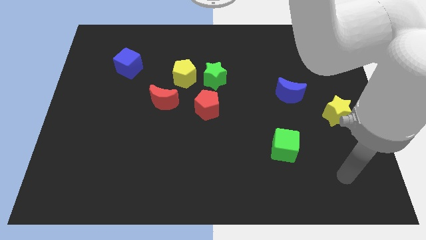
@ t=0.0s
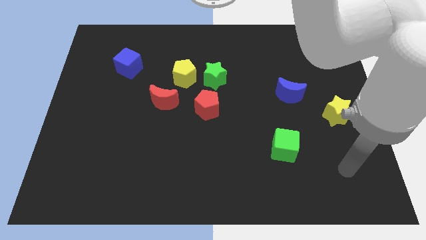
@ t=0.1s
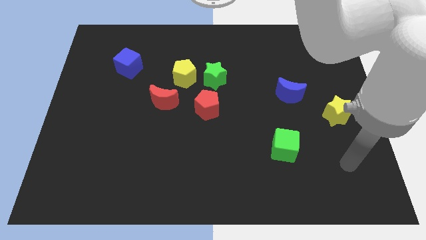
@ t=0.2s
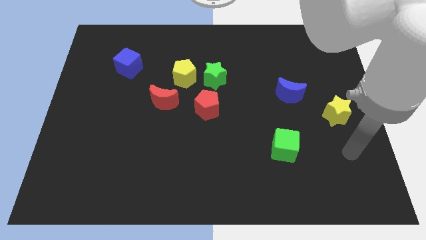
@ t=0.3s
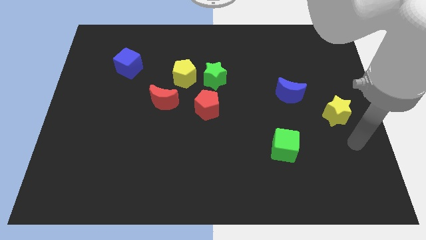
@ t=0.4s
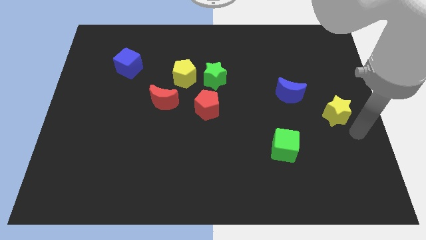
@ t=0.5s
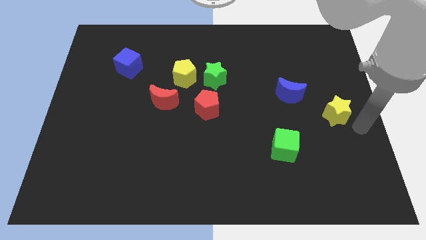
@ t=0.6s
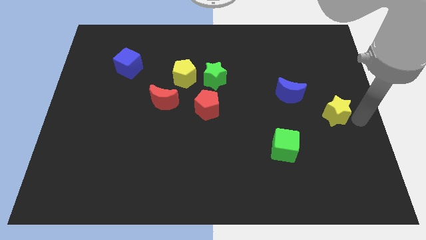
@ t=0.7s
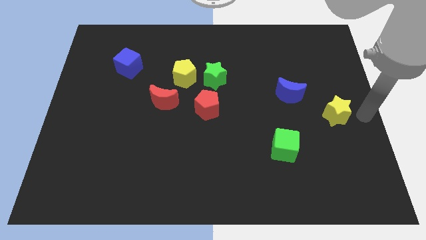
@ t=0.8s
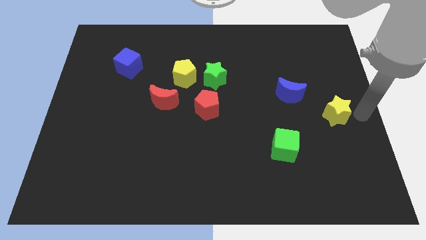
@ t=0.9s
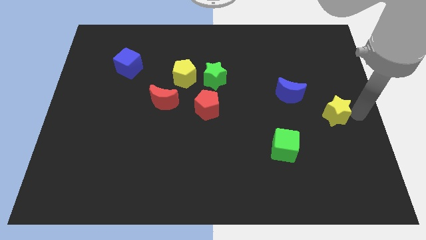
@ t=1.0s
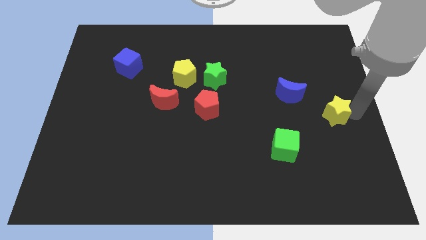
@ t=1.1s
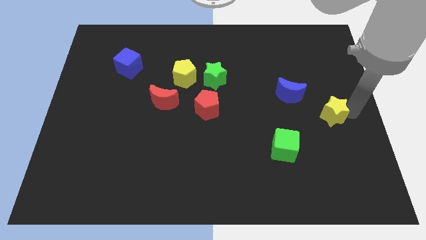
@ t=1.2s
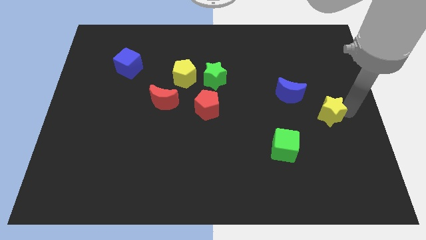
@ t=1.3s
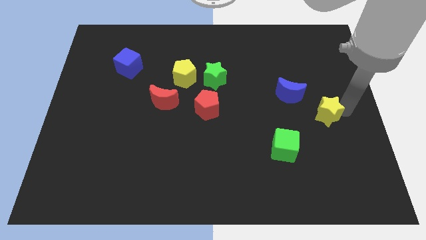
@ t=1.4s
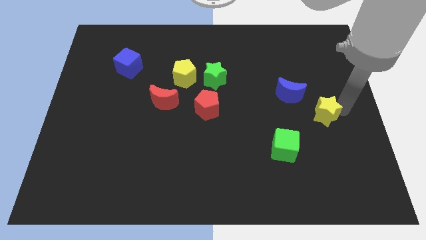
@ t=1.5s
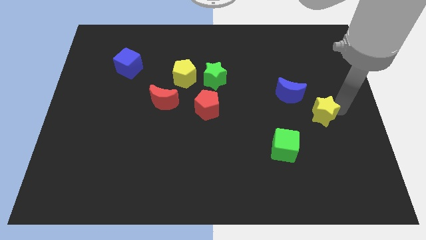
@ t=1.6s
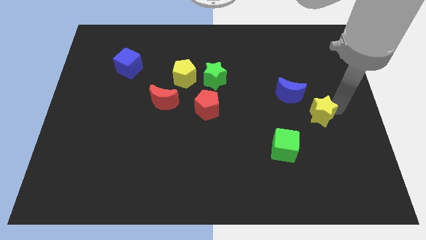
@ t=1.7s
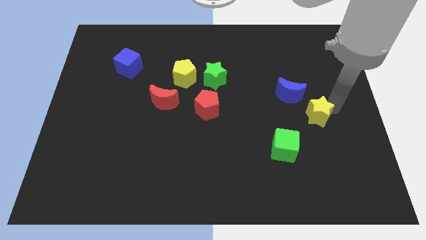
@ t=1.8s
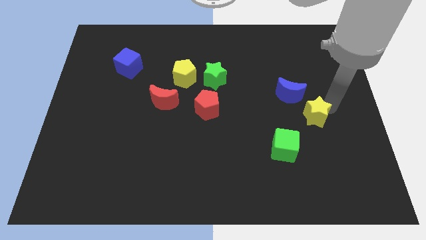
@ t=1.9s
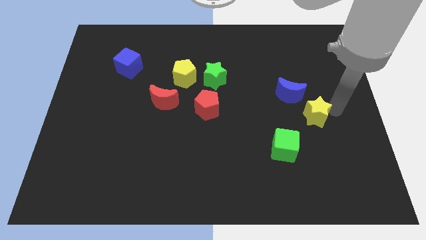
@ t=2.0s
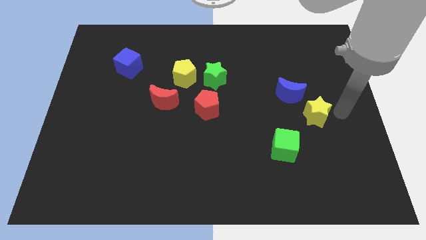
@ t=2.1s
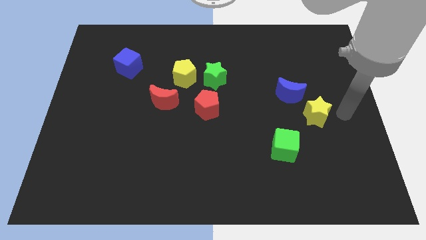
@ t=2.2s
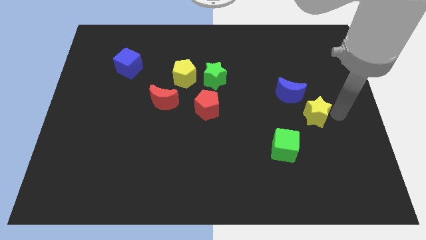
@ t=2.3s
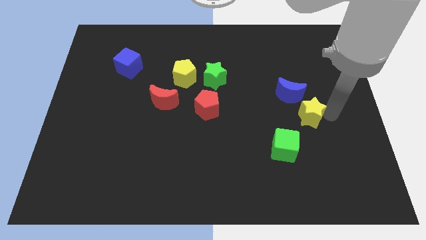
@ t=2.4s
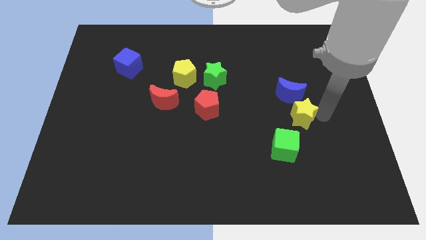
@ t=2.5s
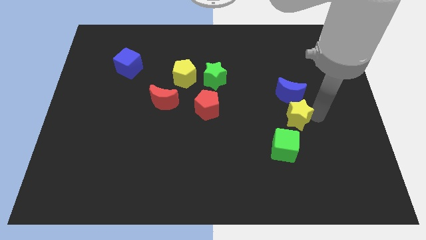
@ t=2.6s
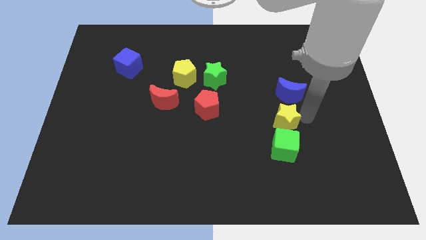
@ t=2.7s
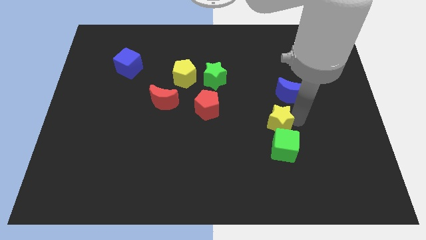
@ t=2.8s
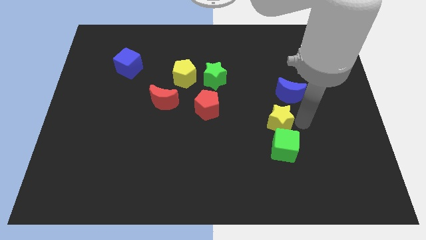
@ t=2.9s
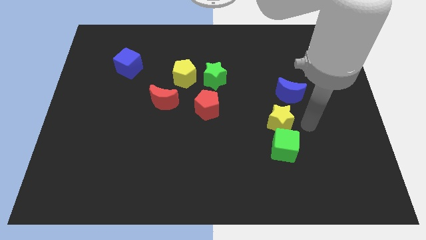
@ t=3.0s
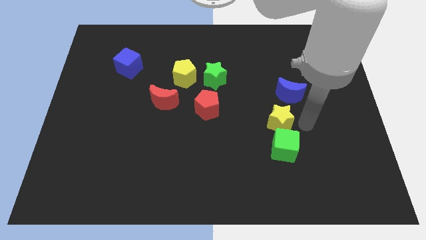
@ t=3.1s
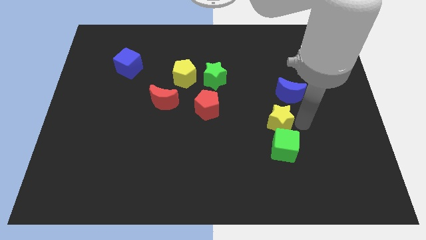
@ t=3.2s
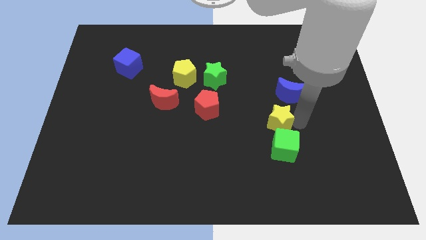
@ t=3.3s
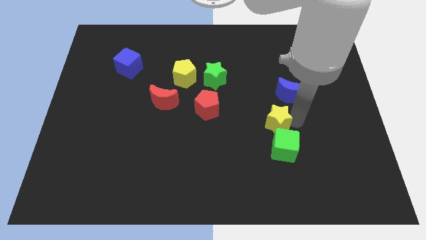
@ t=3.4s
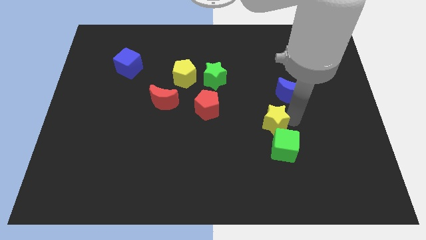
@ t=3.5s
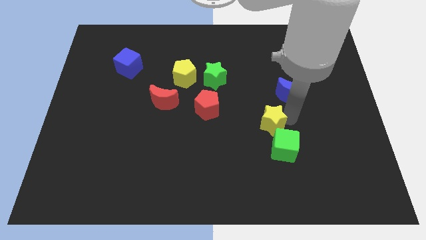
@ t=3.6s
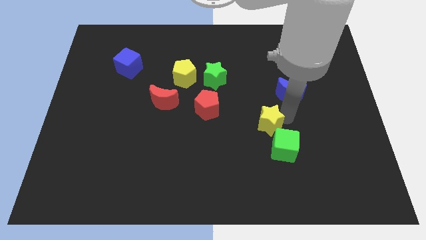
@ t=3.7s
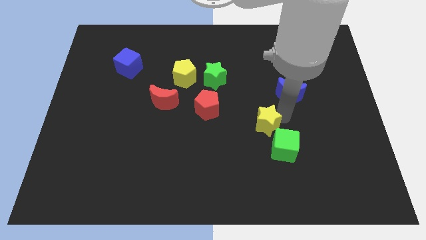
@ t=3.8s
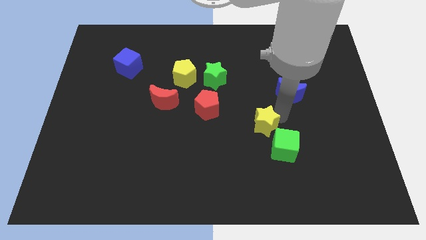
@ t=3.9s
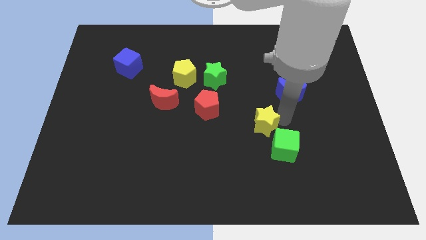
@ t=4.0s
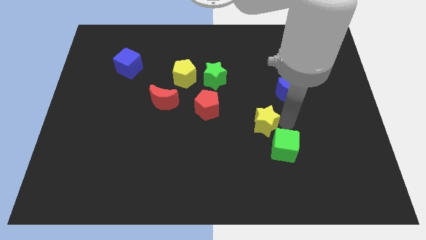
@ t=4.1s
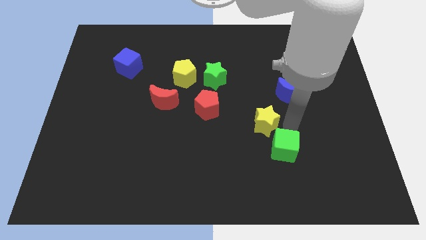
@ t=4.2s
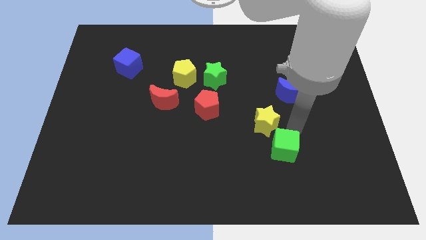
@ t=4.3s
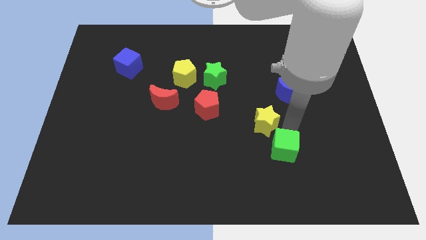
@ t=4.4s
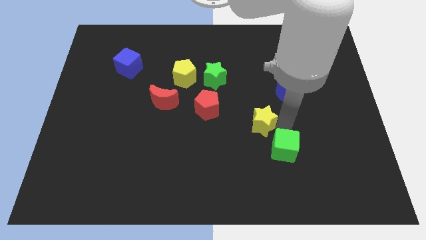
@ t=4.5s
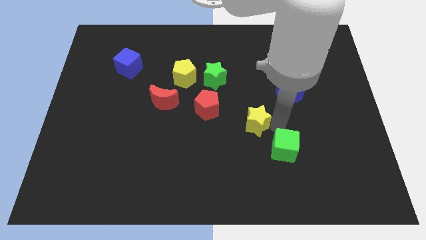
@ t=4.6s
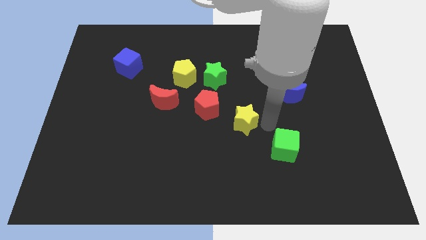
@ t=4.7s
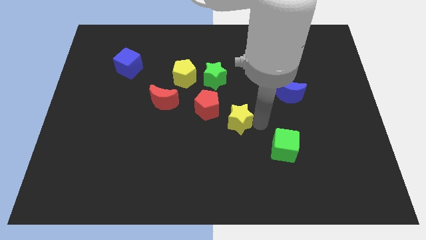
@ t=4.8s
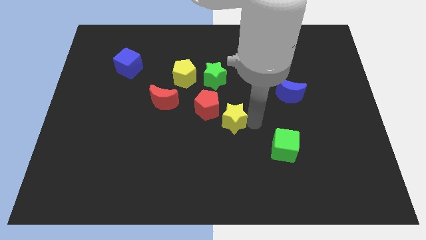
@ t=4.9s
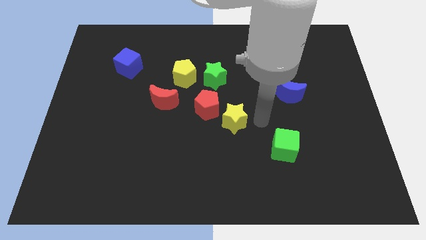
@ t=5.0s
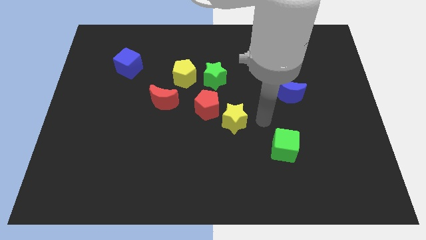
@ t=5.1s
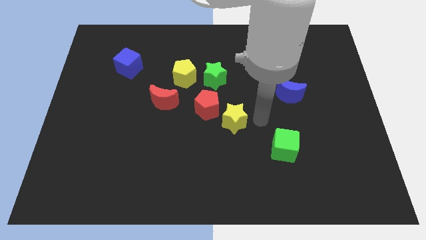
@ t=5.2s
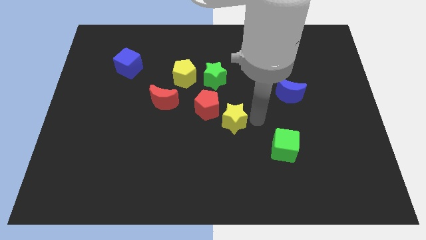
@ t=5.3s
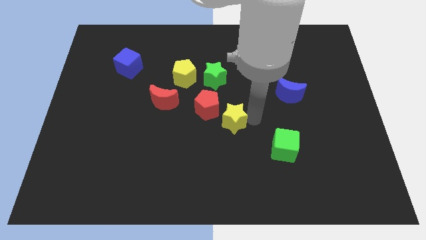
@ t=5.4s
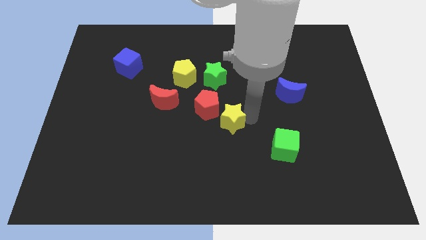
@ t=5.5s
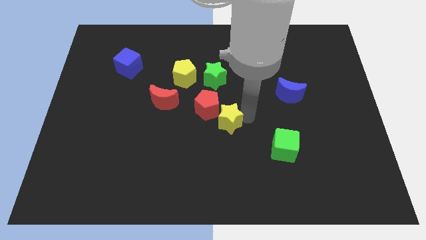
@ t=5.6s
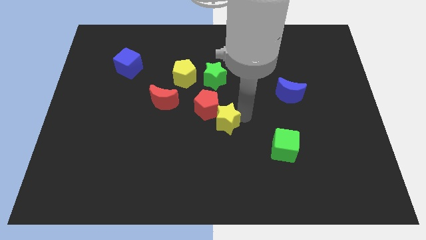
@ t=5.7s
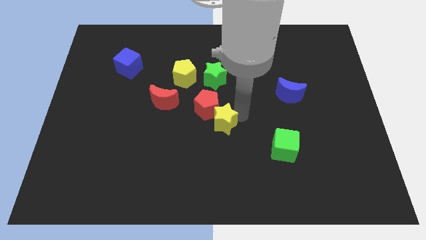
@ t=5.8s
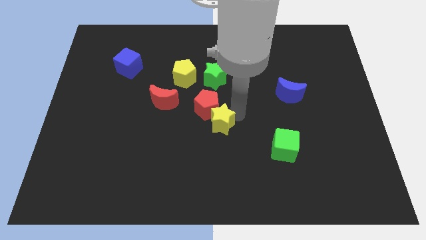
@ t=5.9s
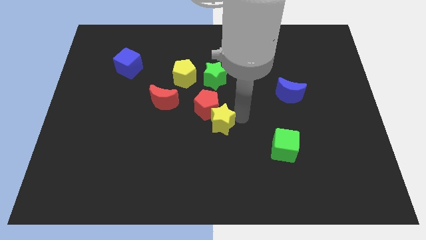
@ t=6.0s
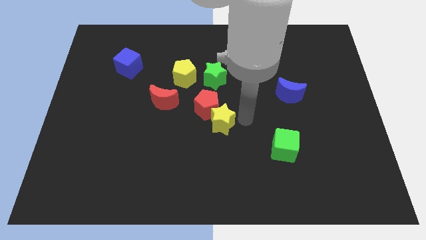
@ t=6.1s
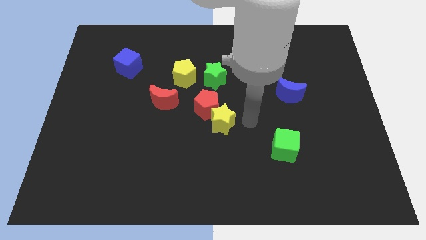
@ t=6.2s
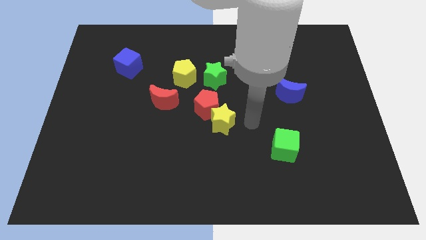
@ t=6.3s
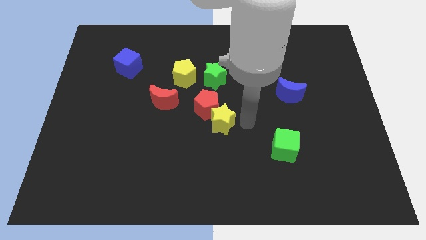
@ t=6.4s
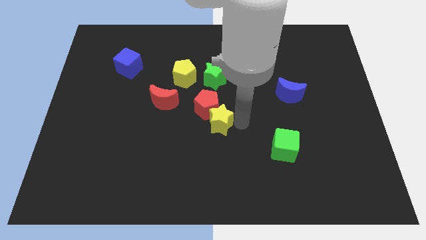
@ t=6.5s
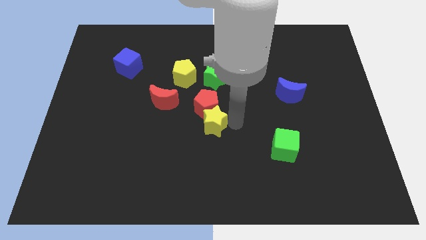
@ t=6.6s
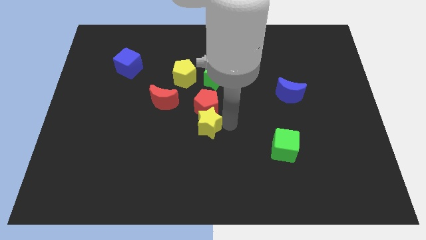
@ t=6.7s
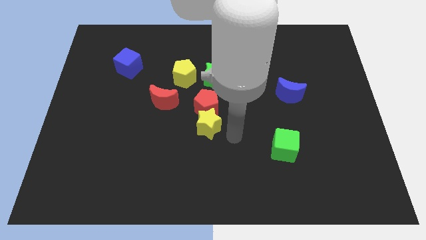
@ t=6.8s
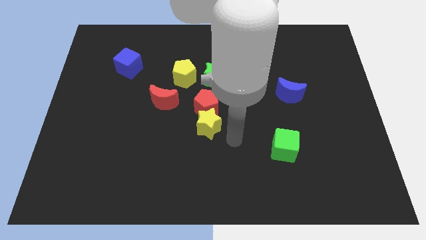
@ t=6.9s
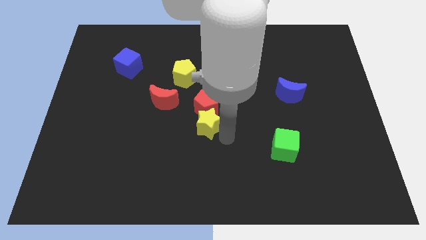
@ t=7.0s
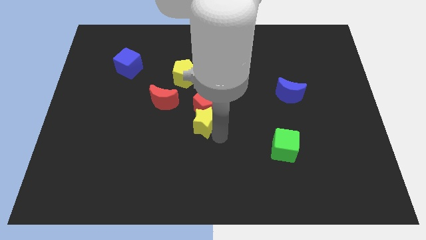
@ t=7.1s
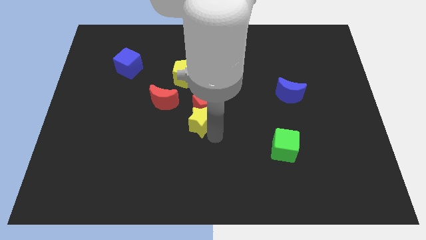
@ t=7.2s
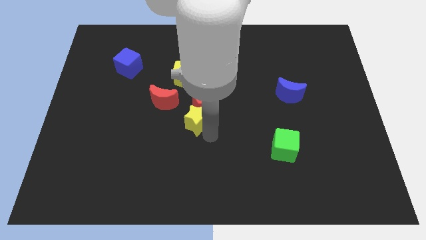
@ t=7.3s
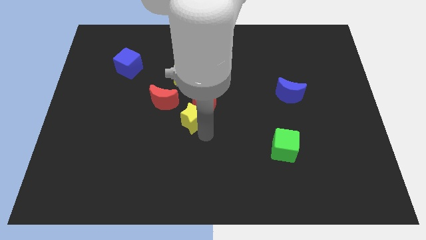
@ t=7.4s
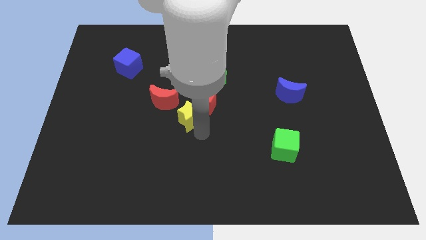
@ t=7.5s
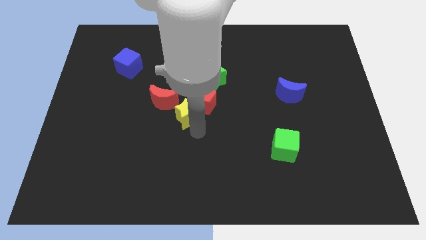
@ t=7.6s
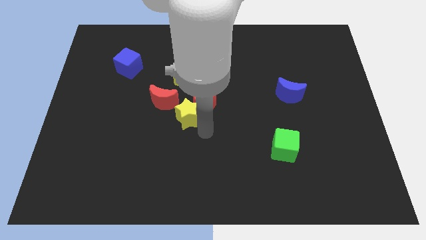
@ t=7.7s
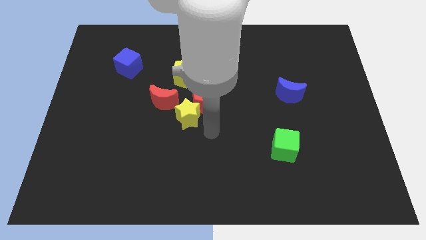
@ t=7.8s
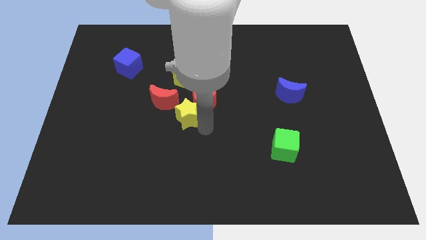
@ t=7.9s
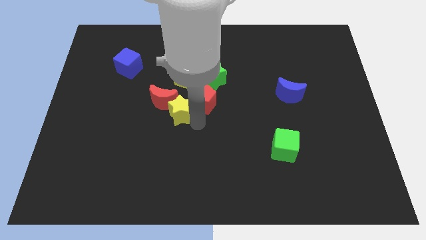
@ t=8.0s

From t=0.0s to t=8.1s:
slide the yellow star to the red moon
